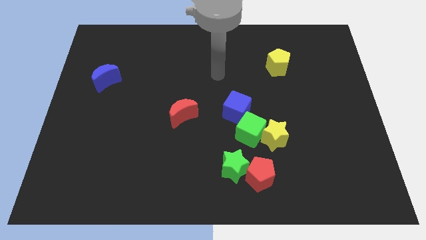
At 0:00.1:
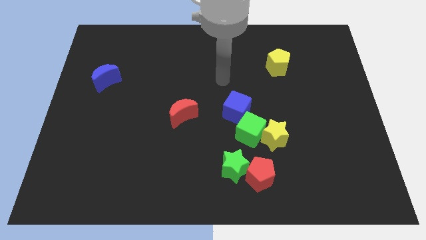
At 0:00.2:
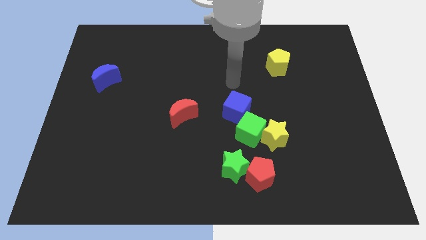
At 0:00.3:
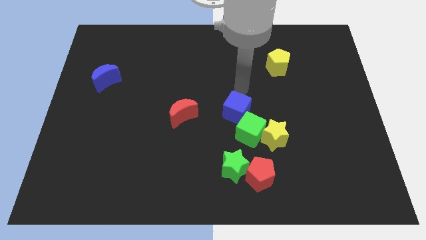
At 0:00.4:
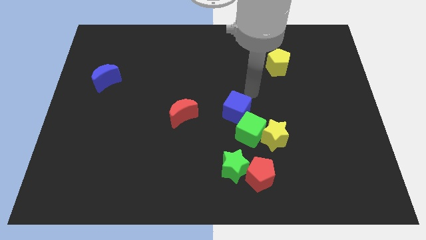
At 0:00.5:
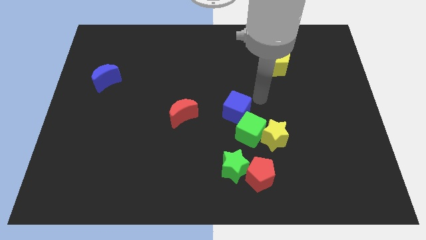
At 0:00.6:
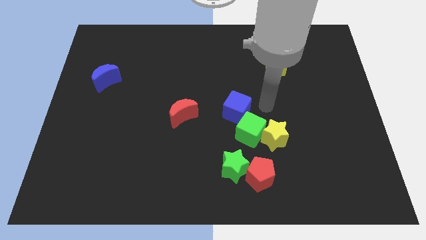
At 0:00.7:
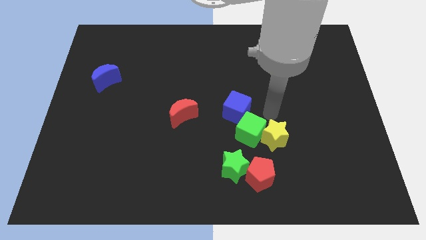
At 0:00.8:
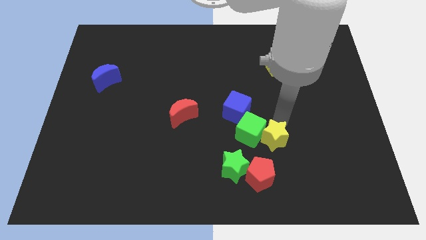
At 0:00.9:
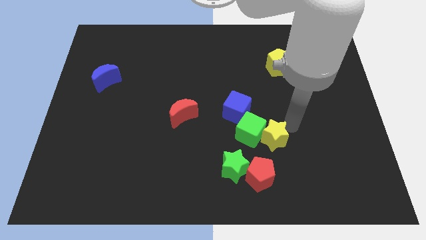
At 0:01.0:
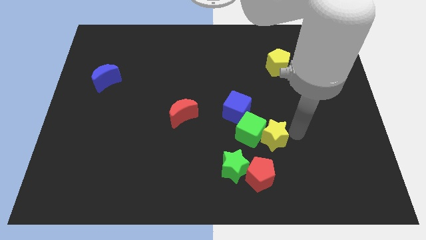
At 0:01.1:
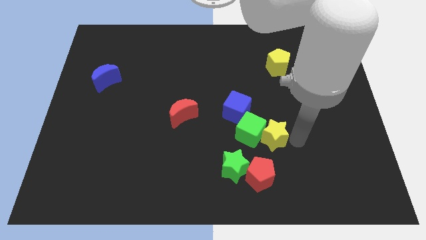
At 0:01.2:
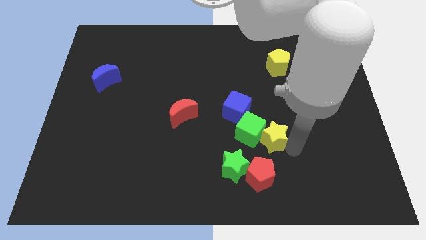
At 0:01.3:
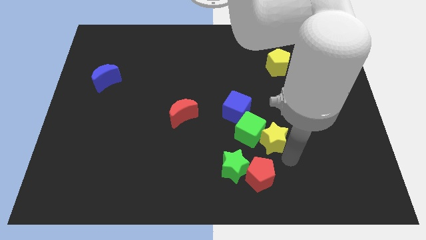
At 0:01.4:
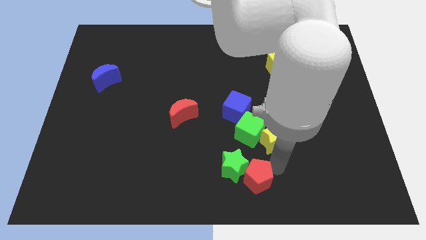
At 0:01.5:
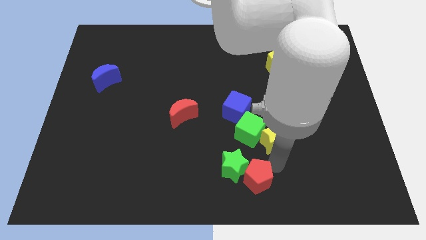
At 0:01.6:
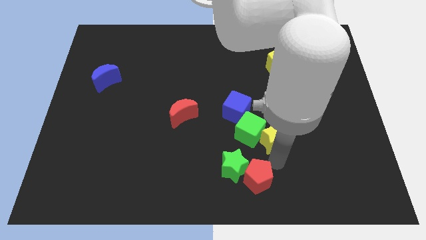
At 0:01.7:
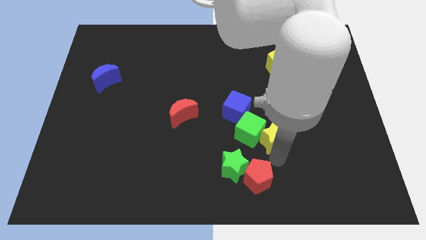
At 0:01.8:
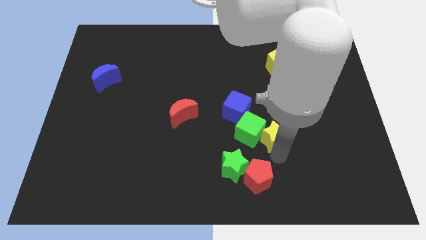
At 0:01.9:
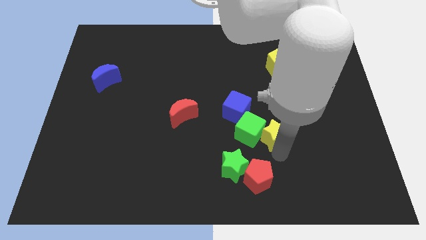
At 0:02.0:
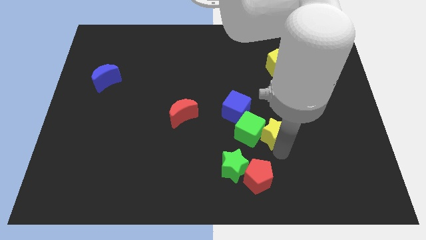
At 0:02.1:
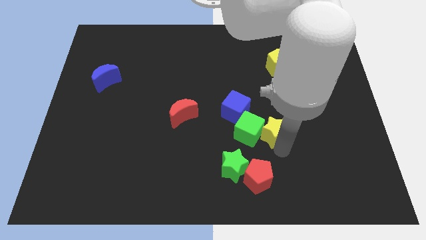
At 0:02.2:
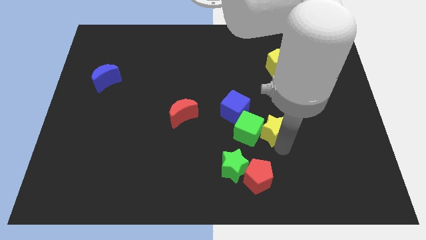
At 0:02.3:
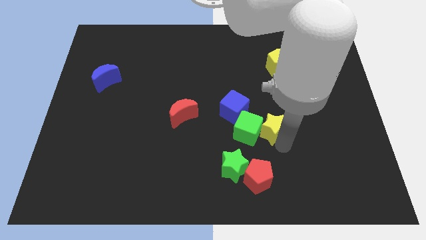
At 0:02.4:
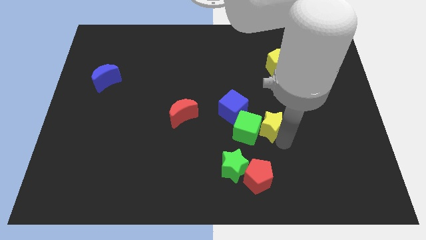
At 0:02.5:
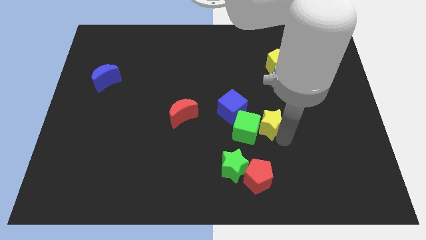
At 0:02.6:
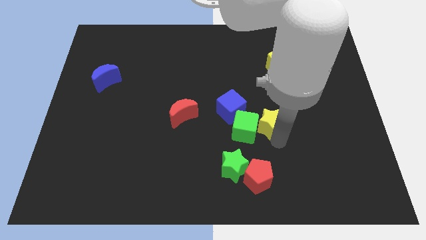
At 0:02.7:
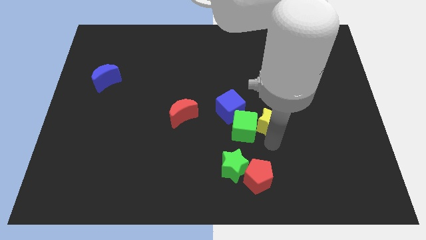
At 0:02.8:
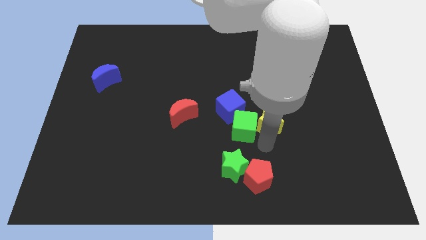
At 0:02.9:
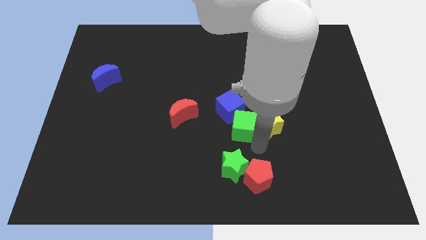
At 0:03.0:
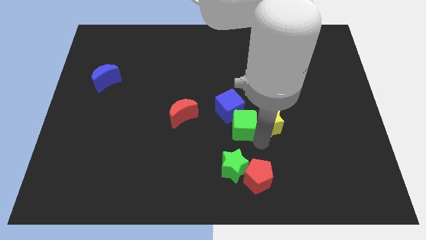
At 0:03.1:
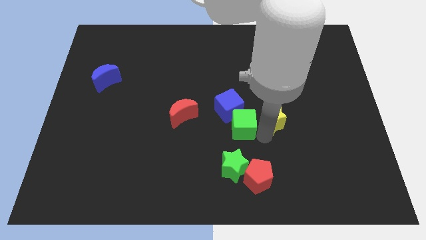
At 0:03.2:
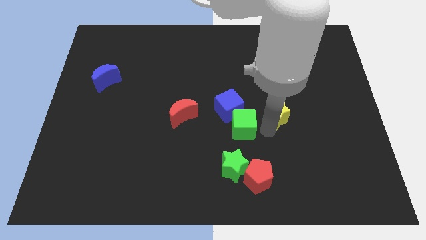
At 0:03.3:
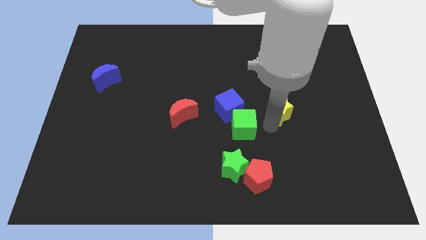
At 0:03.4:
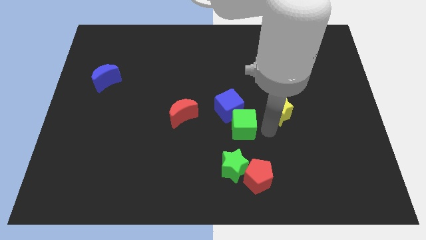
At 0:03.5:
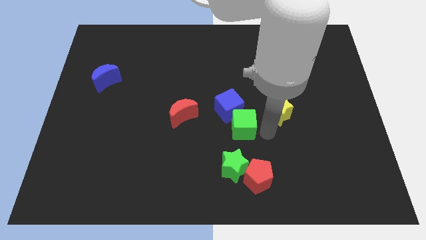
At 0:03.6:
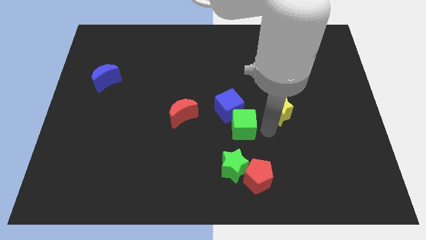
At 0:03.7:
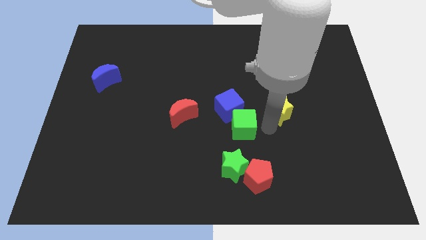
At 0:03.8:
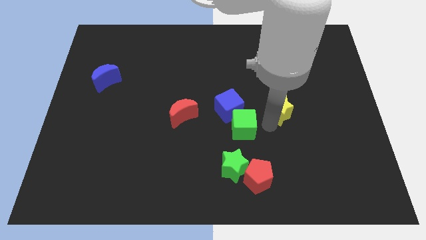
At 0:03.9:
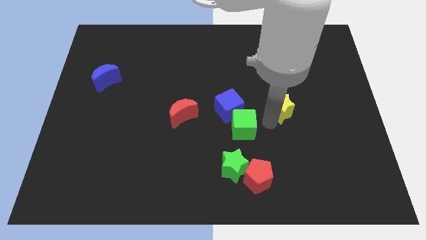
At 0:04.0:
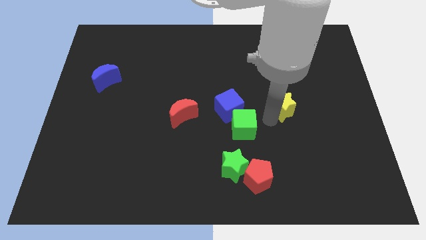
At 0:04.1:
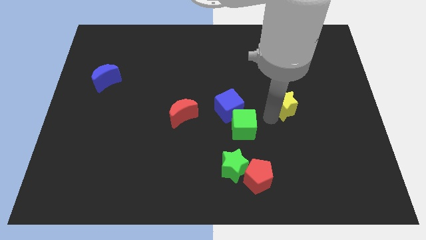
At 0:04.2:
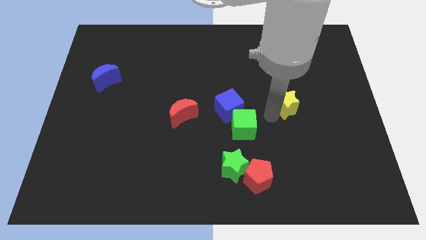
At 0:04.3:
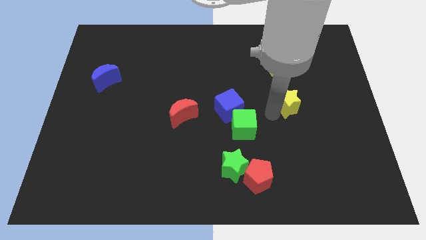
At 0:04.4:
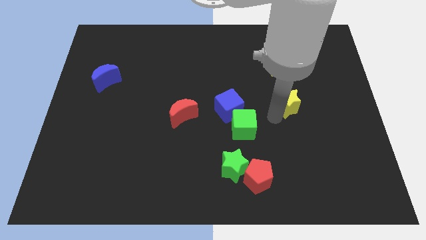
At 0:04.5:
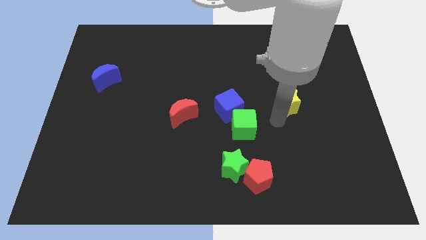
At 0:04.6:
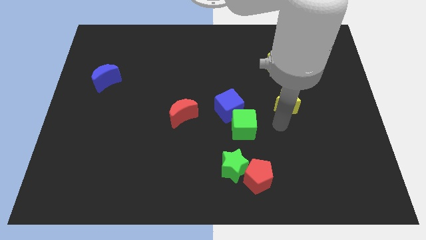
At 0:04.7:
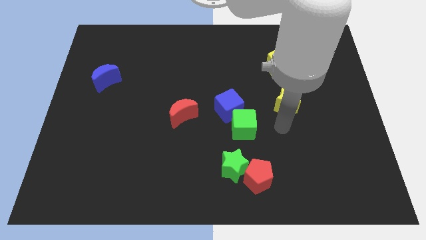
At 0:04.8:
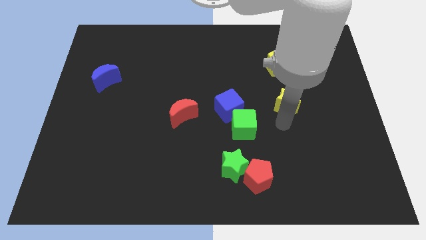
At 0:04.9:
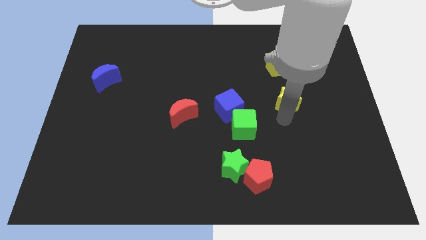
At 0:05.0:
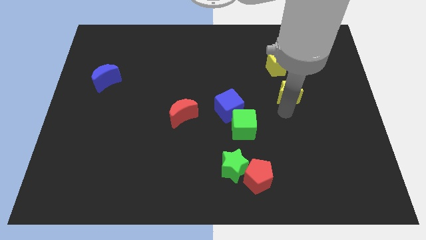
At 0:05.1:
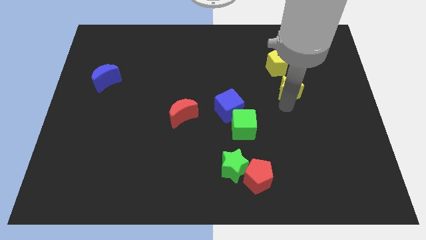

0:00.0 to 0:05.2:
put the yellow star to the bottom right side of the yellow pentagon

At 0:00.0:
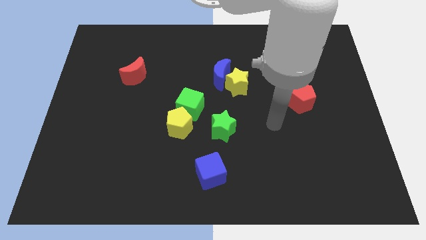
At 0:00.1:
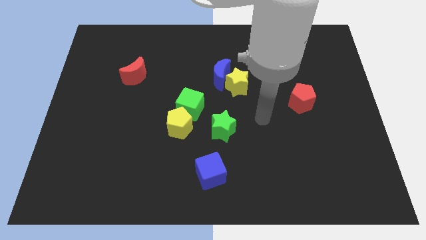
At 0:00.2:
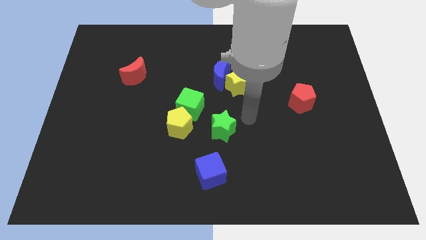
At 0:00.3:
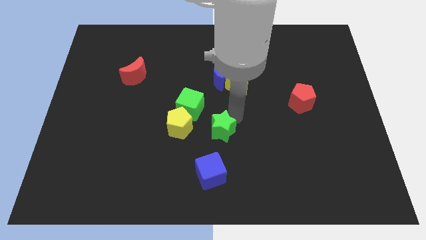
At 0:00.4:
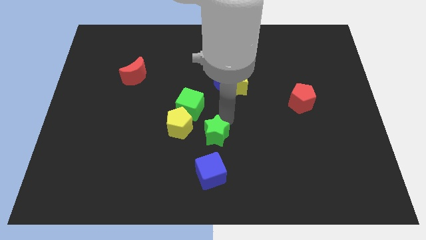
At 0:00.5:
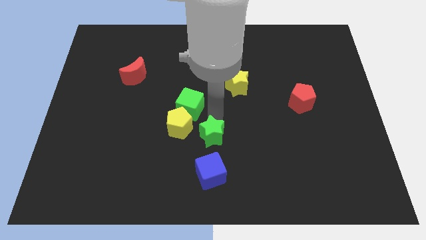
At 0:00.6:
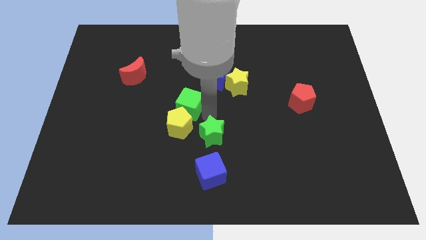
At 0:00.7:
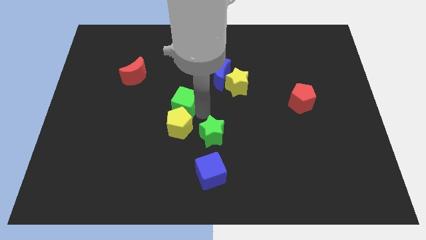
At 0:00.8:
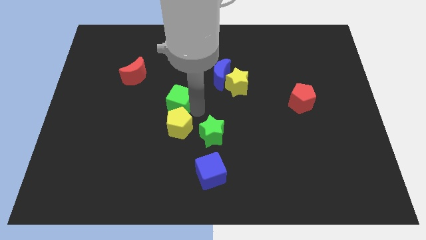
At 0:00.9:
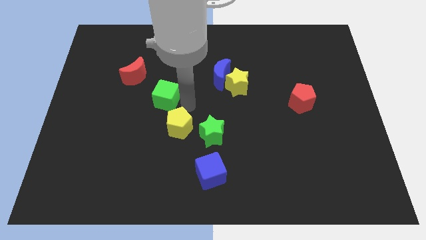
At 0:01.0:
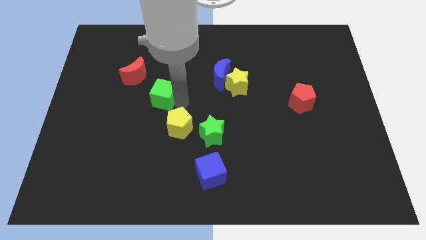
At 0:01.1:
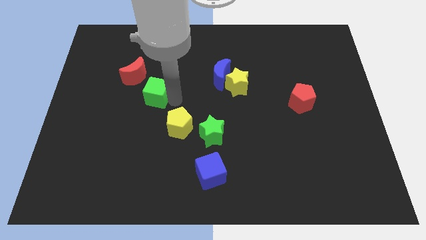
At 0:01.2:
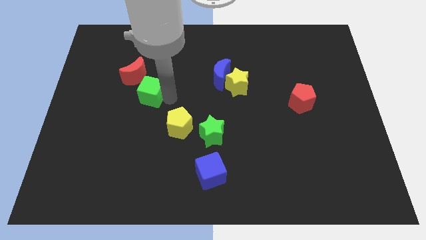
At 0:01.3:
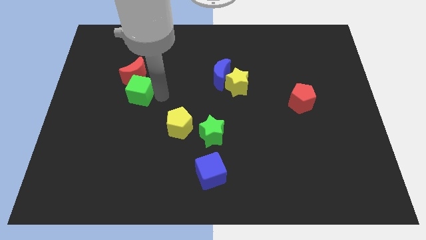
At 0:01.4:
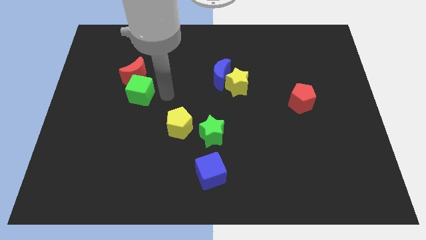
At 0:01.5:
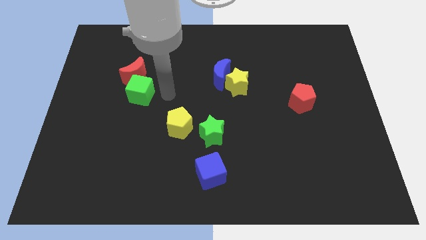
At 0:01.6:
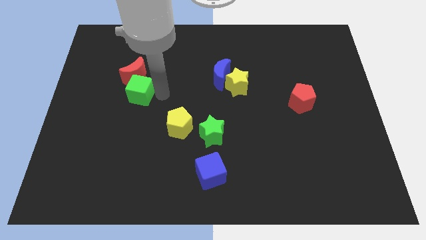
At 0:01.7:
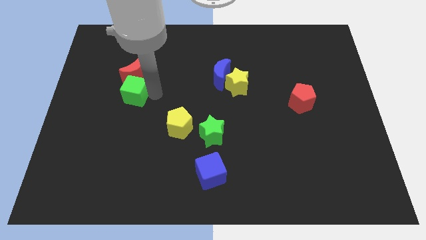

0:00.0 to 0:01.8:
move the green cube diagonally down and to the left of the red moon
